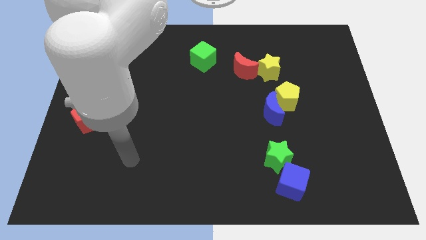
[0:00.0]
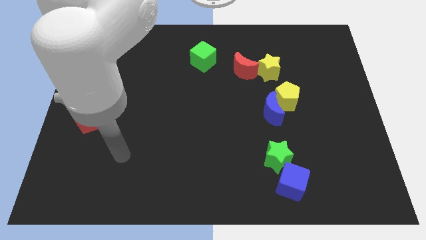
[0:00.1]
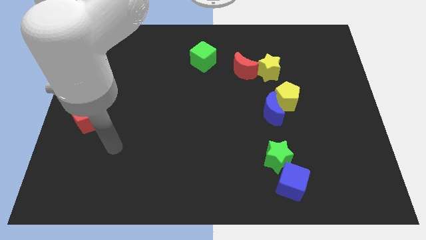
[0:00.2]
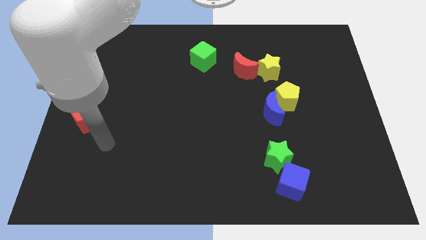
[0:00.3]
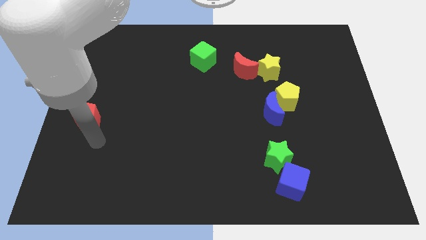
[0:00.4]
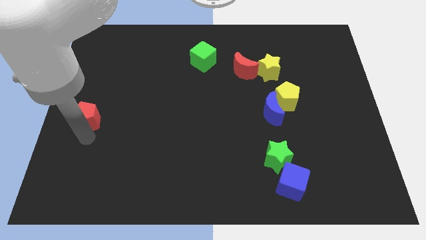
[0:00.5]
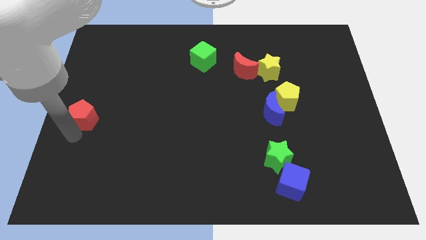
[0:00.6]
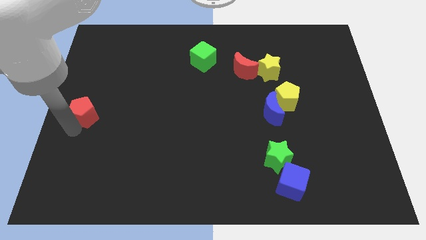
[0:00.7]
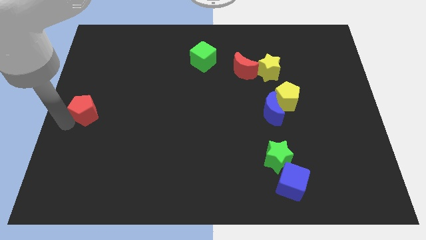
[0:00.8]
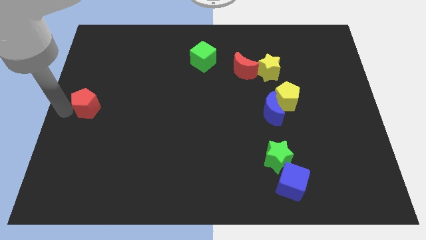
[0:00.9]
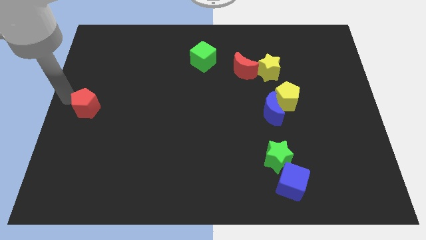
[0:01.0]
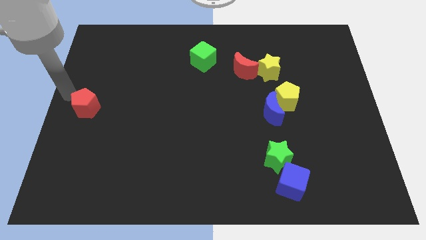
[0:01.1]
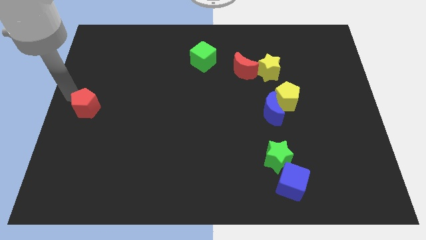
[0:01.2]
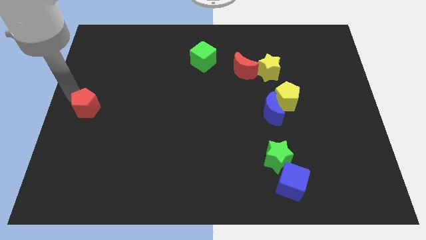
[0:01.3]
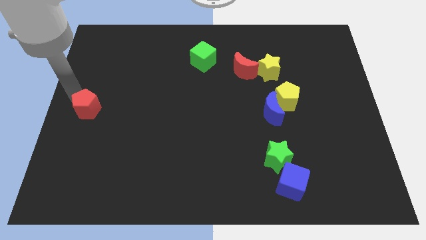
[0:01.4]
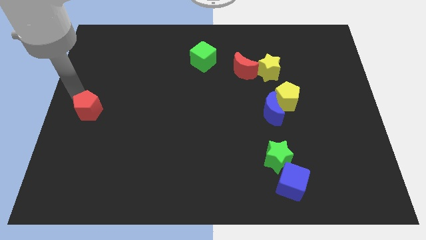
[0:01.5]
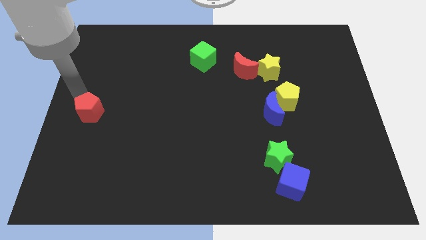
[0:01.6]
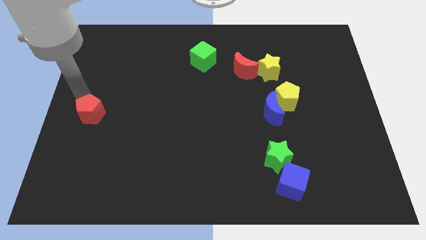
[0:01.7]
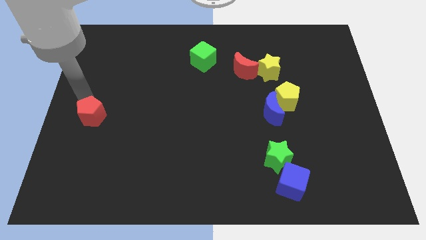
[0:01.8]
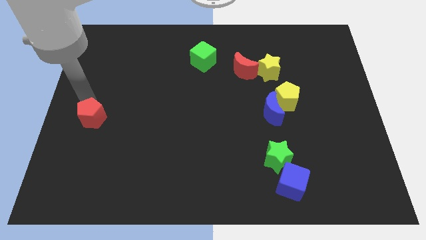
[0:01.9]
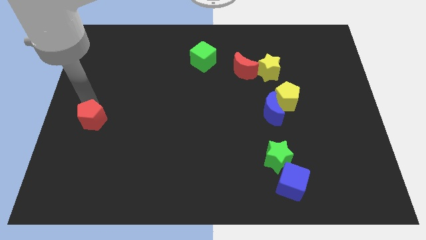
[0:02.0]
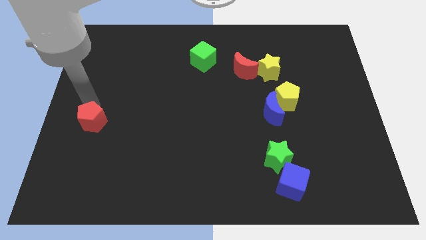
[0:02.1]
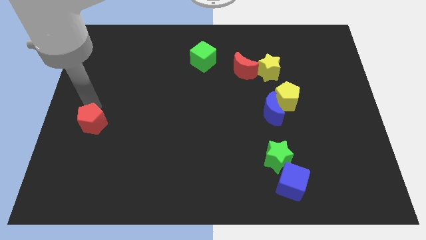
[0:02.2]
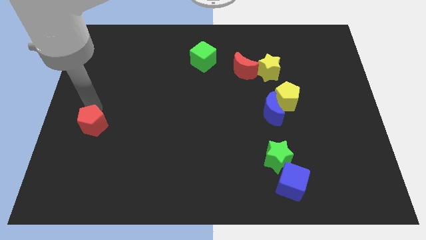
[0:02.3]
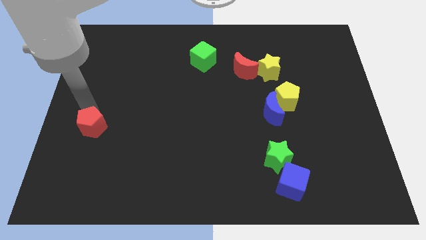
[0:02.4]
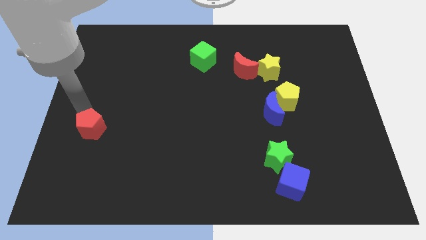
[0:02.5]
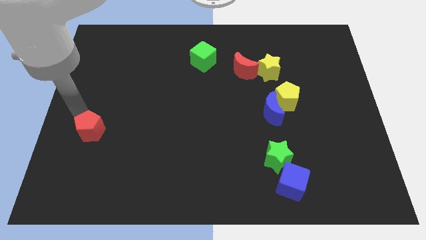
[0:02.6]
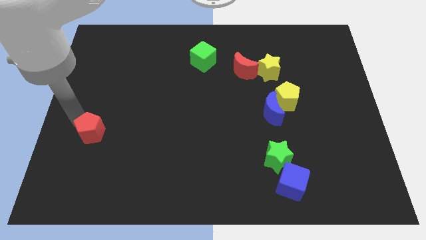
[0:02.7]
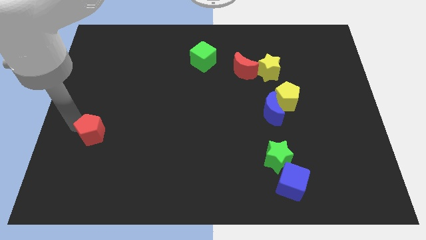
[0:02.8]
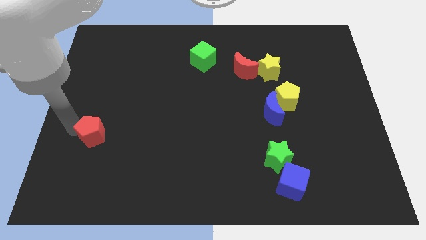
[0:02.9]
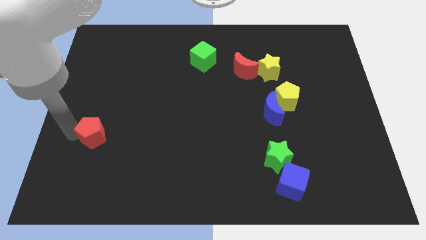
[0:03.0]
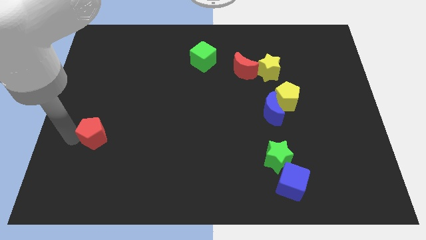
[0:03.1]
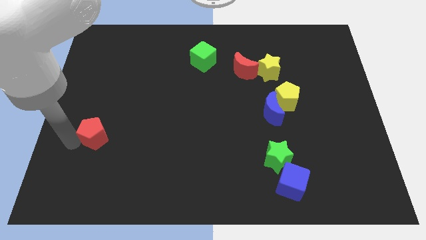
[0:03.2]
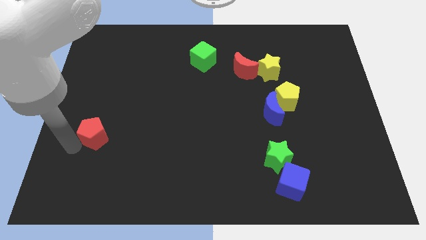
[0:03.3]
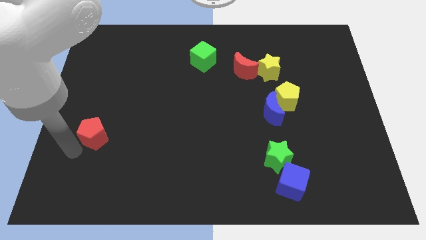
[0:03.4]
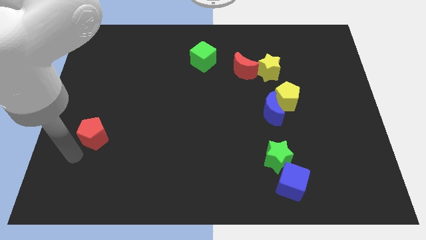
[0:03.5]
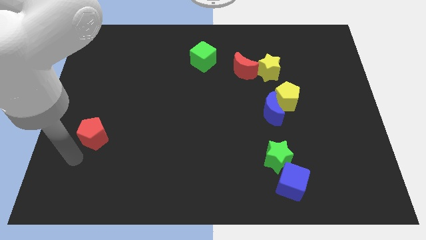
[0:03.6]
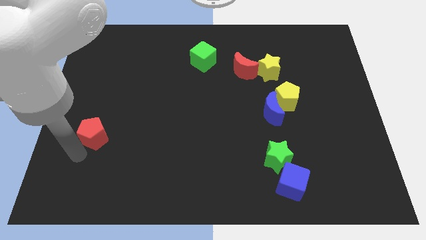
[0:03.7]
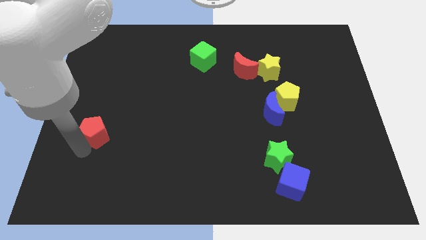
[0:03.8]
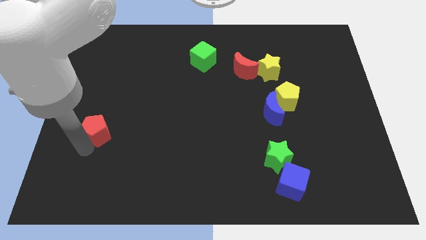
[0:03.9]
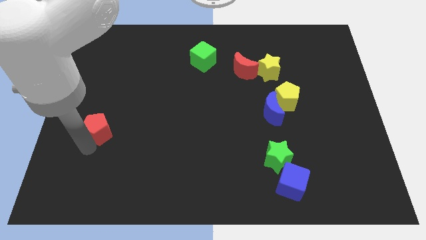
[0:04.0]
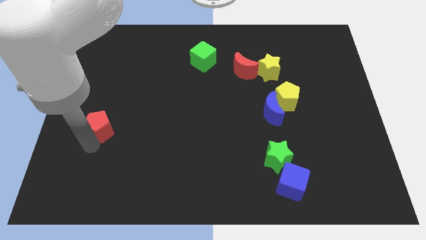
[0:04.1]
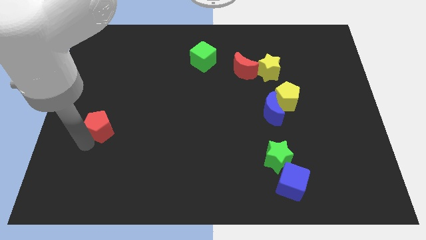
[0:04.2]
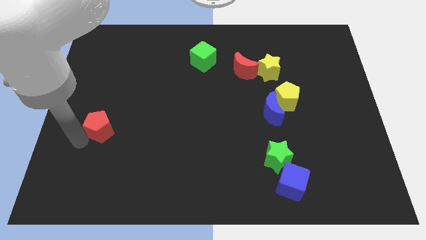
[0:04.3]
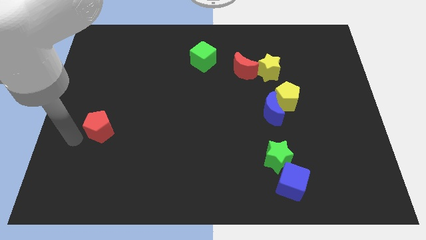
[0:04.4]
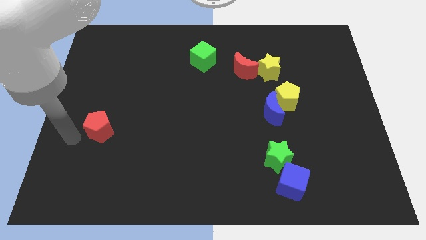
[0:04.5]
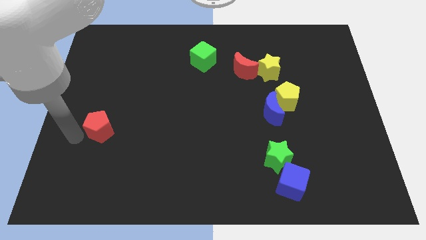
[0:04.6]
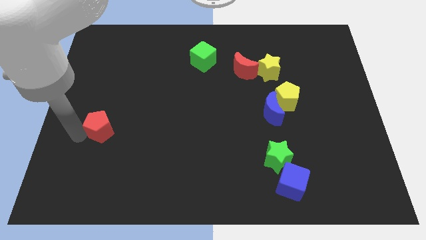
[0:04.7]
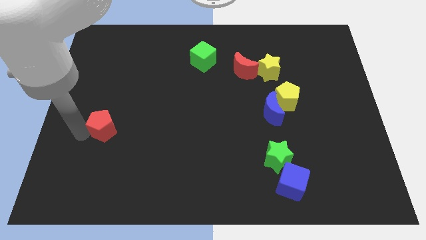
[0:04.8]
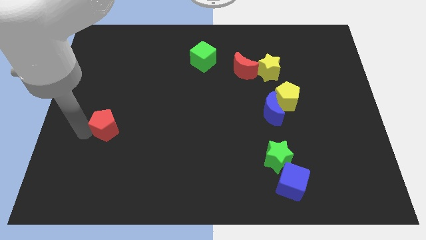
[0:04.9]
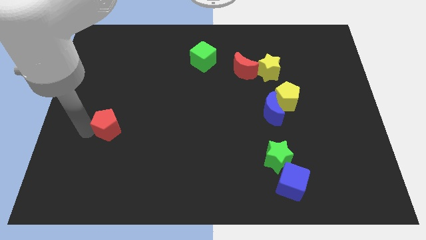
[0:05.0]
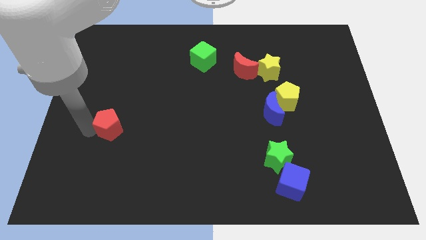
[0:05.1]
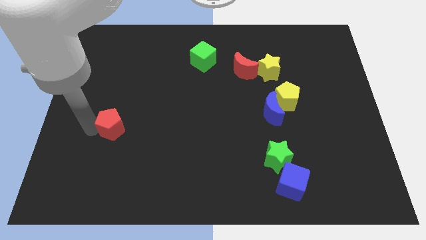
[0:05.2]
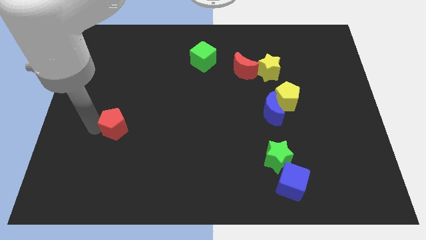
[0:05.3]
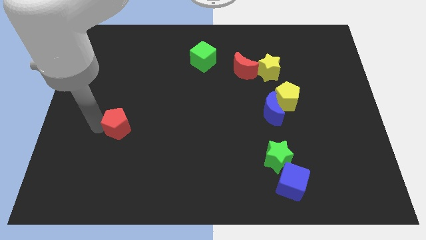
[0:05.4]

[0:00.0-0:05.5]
push the red pentagon right a bit

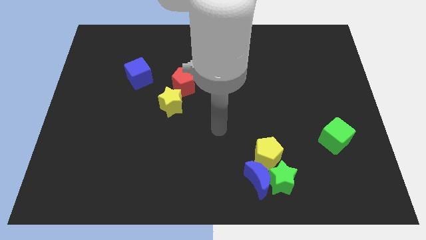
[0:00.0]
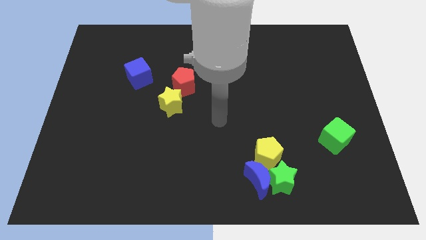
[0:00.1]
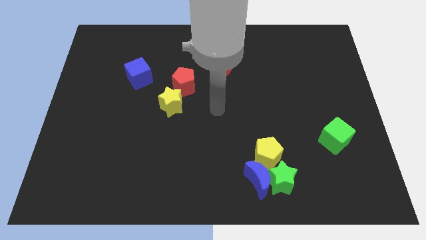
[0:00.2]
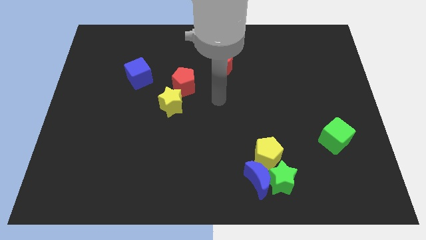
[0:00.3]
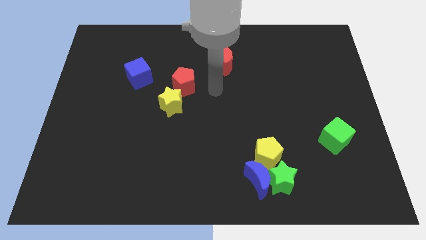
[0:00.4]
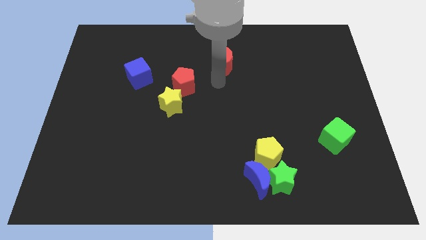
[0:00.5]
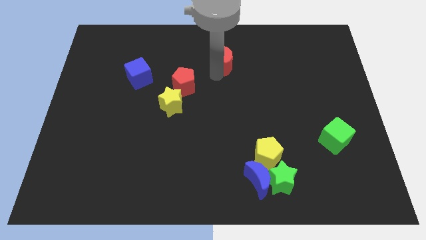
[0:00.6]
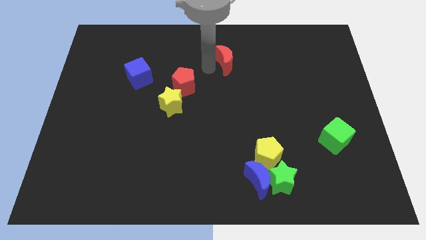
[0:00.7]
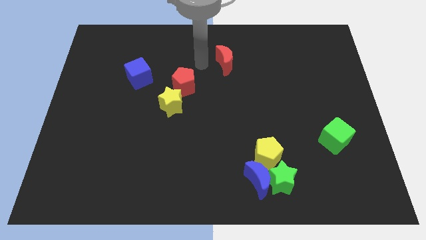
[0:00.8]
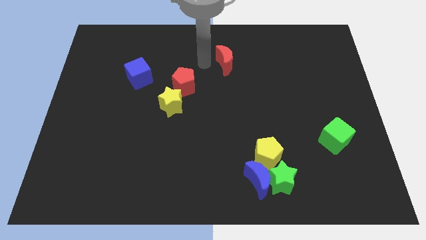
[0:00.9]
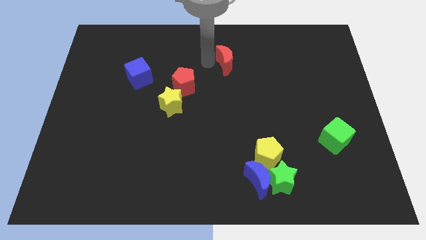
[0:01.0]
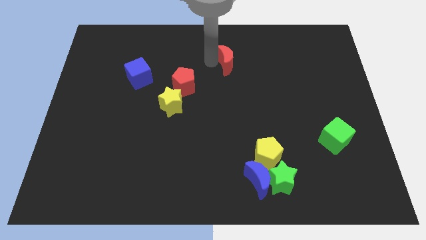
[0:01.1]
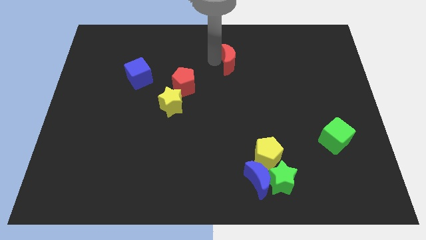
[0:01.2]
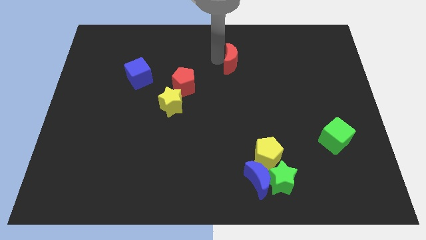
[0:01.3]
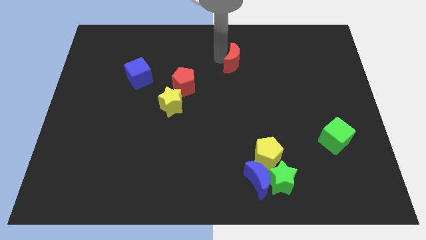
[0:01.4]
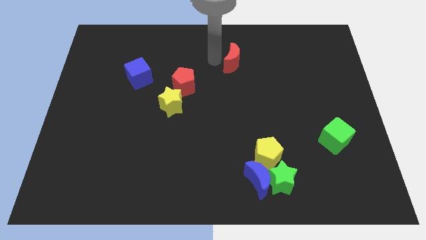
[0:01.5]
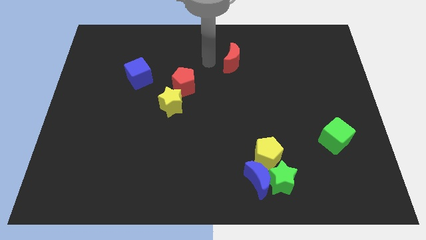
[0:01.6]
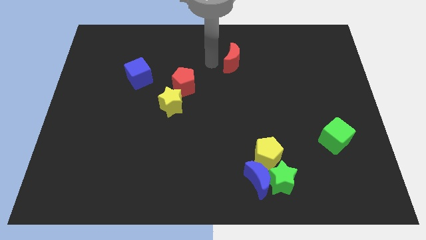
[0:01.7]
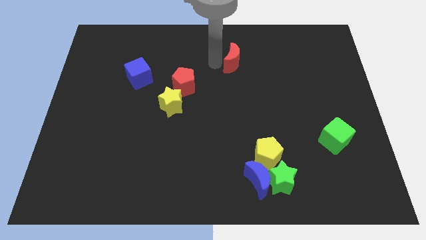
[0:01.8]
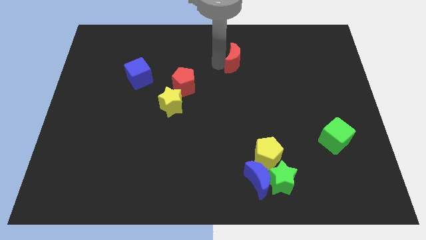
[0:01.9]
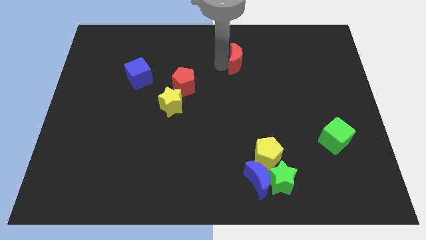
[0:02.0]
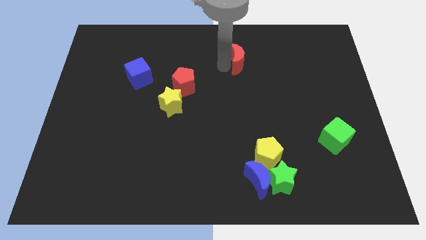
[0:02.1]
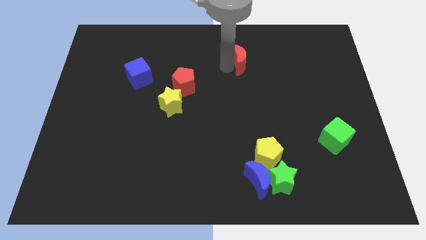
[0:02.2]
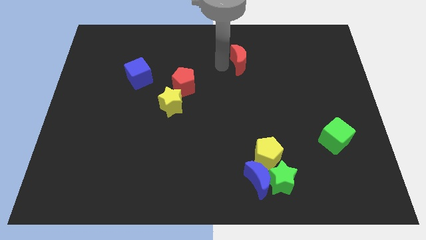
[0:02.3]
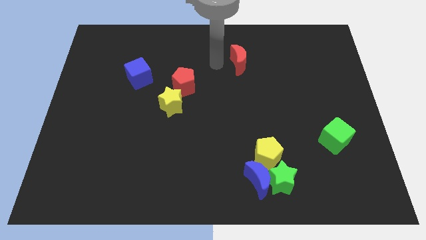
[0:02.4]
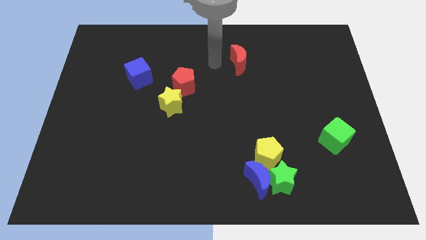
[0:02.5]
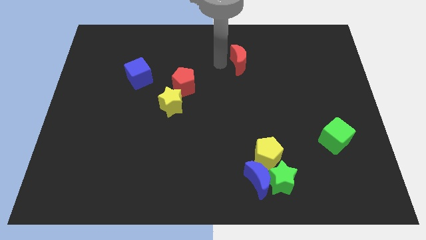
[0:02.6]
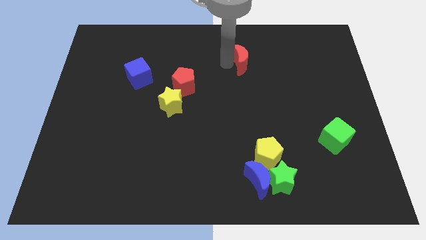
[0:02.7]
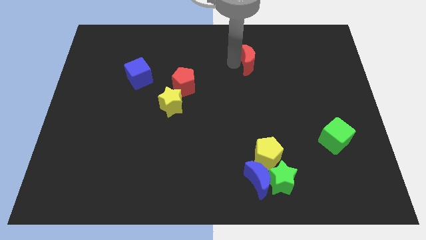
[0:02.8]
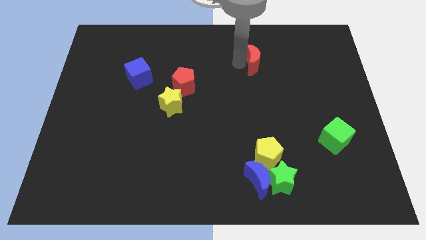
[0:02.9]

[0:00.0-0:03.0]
push the red moon somewhat to the right
